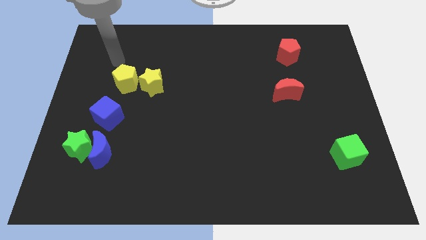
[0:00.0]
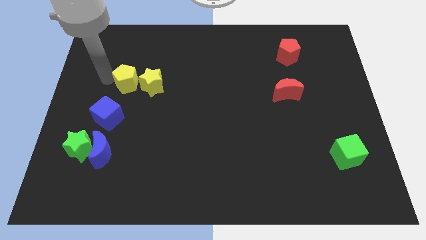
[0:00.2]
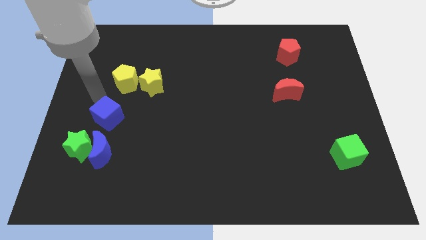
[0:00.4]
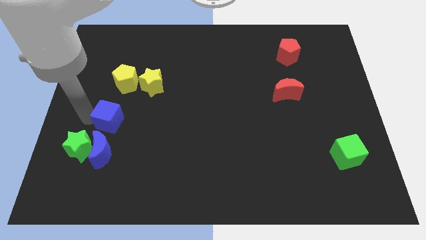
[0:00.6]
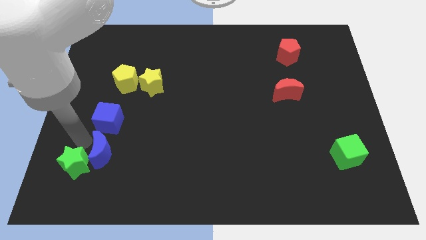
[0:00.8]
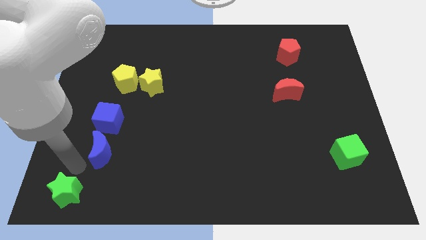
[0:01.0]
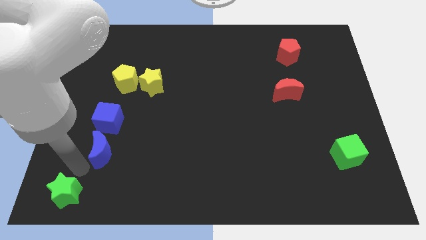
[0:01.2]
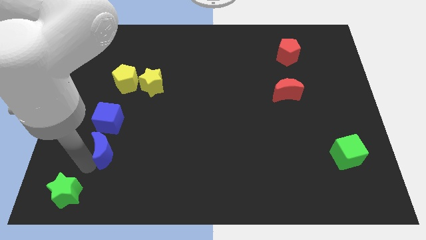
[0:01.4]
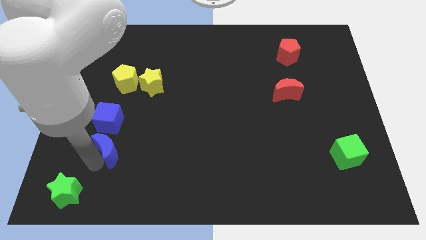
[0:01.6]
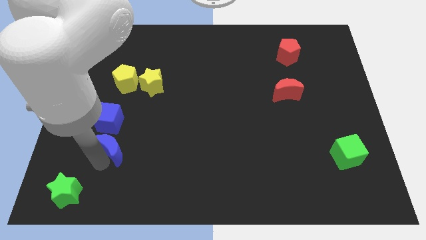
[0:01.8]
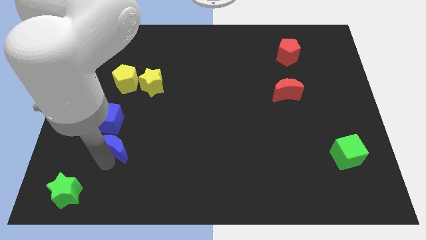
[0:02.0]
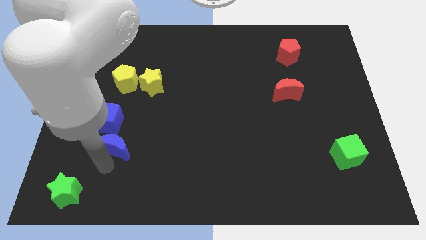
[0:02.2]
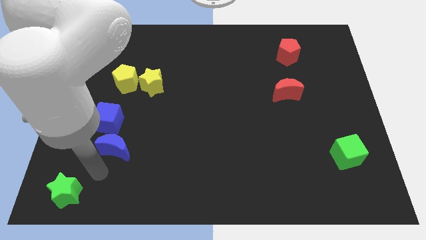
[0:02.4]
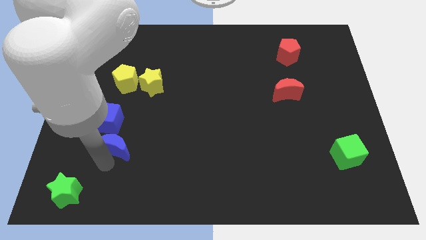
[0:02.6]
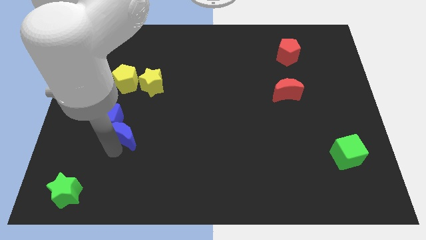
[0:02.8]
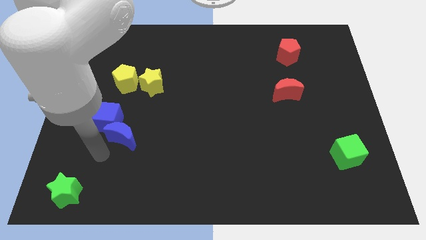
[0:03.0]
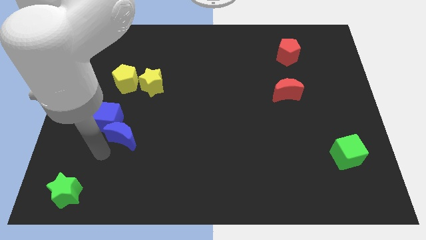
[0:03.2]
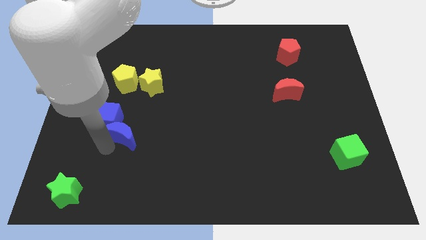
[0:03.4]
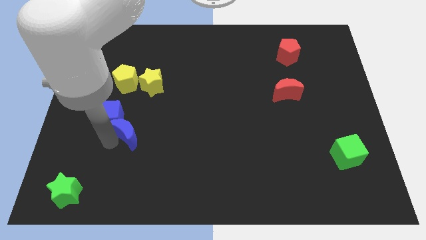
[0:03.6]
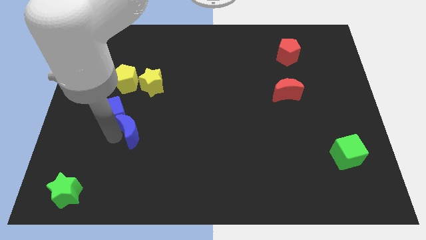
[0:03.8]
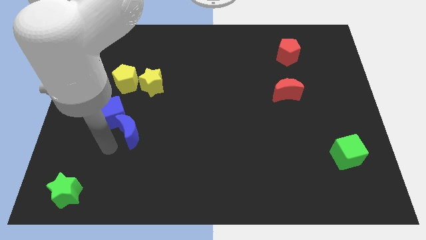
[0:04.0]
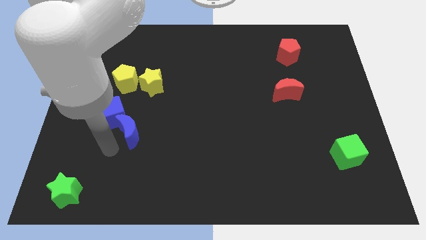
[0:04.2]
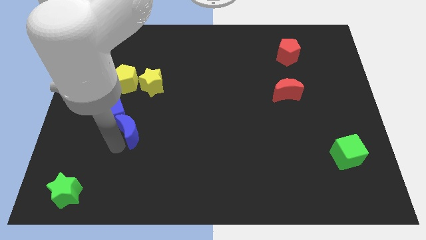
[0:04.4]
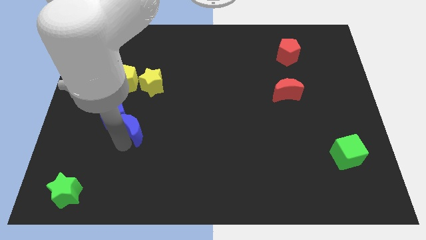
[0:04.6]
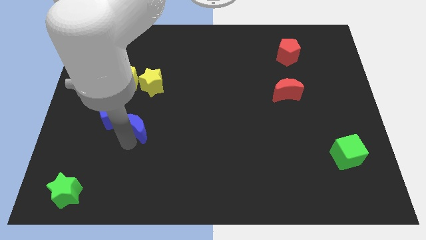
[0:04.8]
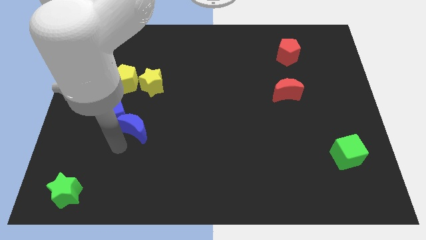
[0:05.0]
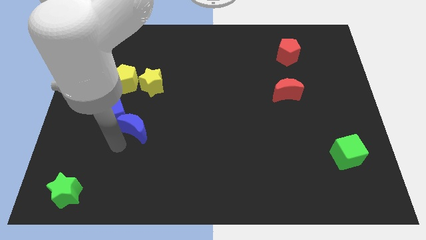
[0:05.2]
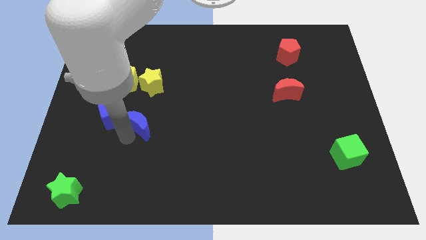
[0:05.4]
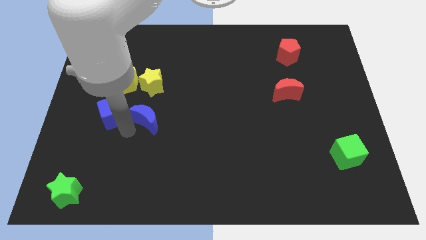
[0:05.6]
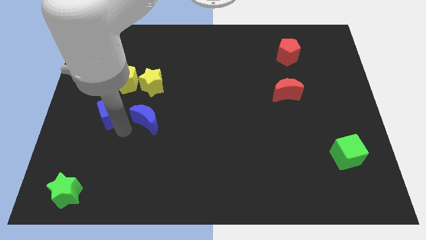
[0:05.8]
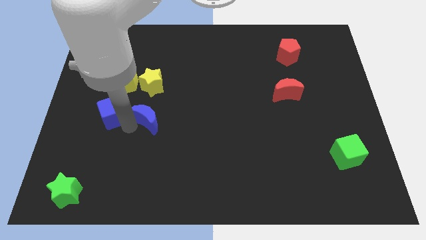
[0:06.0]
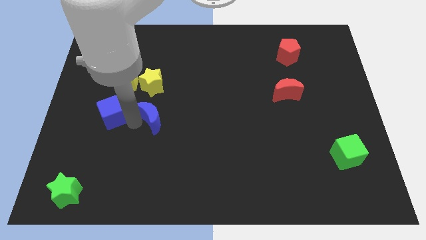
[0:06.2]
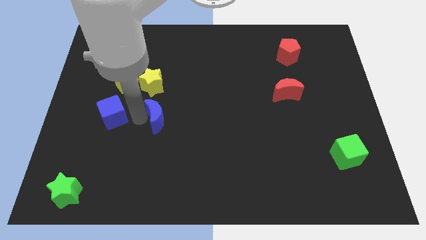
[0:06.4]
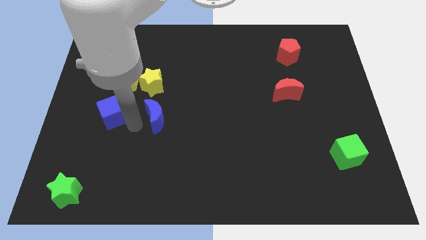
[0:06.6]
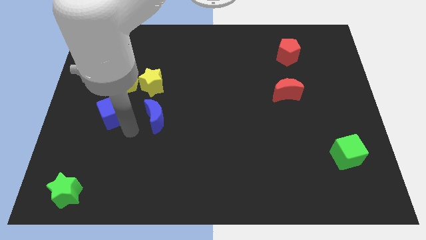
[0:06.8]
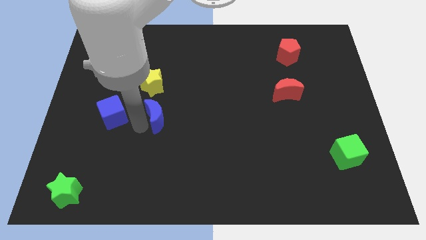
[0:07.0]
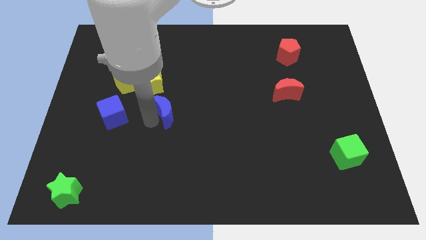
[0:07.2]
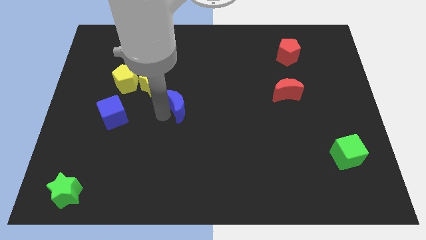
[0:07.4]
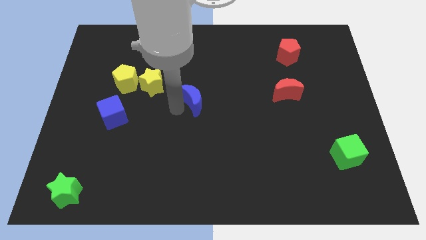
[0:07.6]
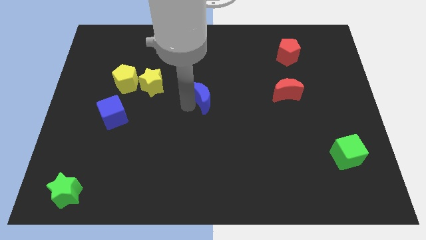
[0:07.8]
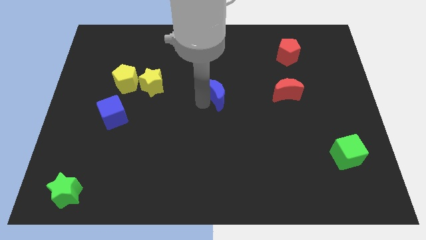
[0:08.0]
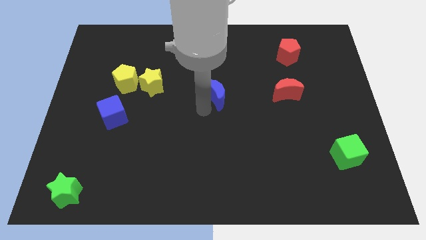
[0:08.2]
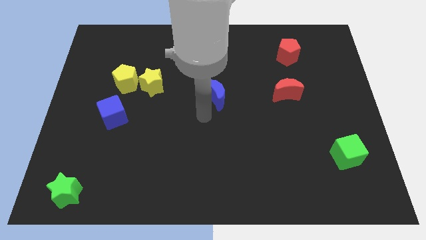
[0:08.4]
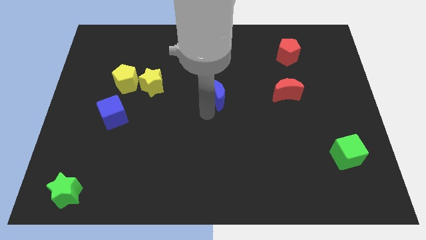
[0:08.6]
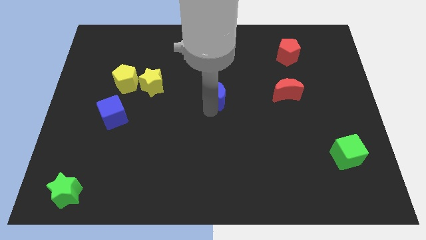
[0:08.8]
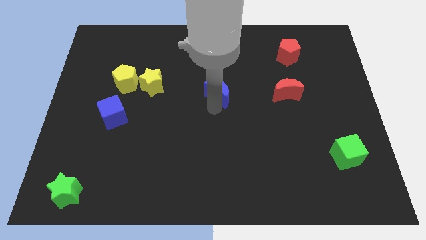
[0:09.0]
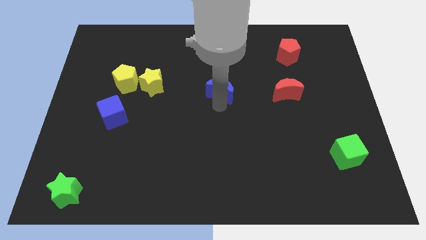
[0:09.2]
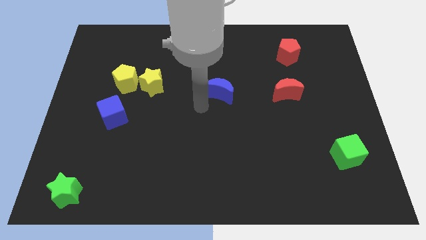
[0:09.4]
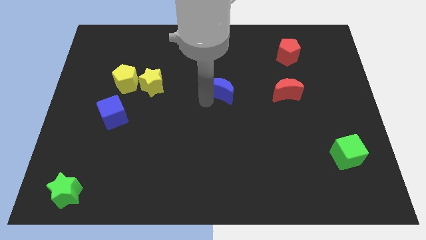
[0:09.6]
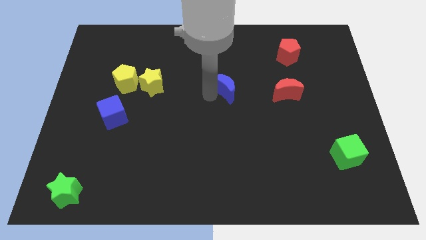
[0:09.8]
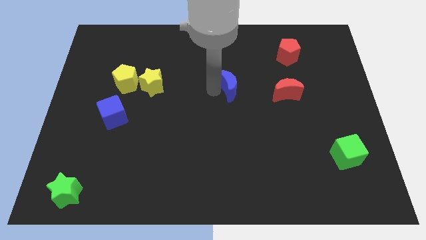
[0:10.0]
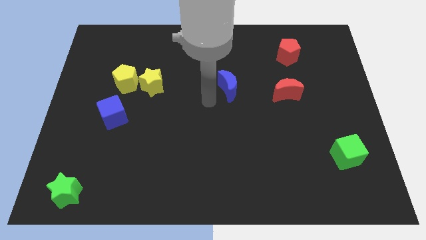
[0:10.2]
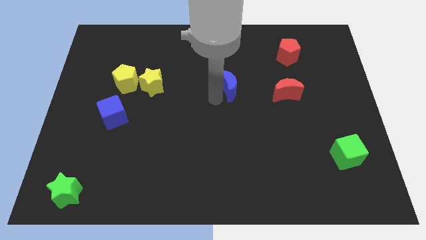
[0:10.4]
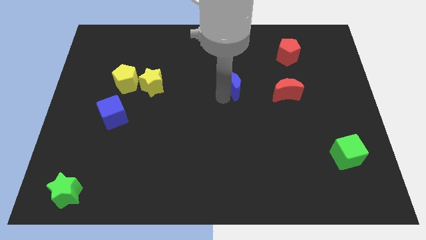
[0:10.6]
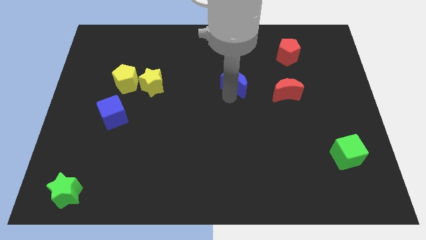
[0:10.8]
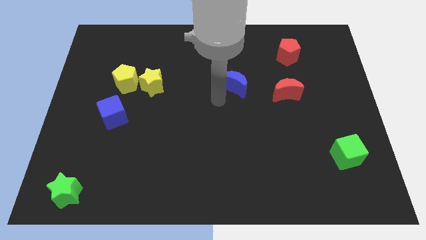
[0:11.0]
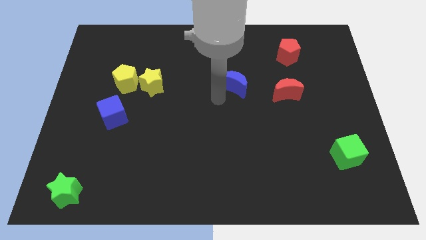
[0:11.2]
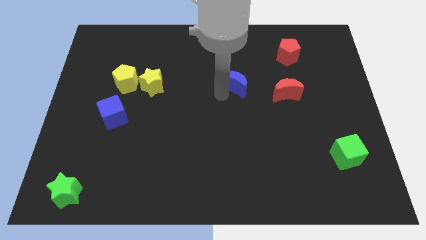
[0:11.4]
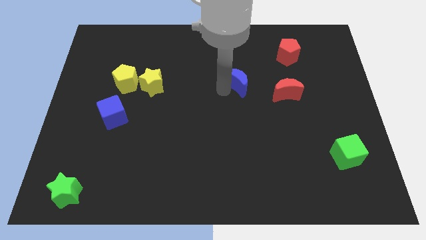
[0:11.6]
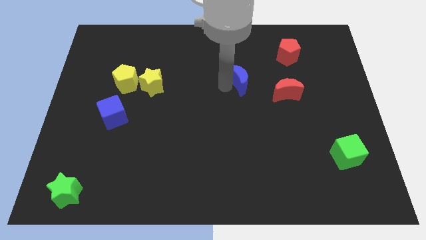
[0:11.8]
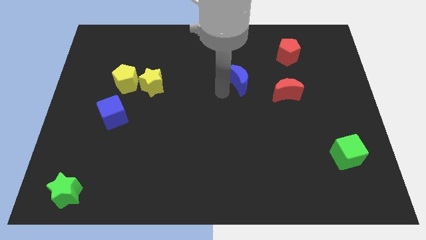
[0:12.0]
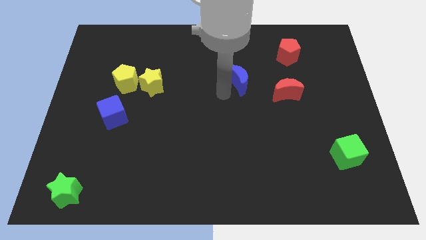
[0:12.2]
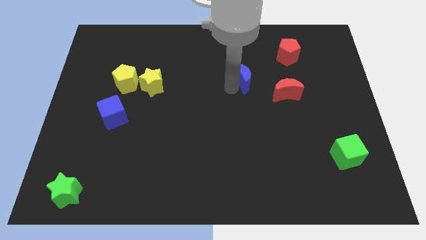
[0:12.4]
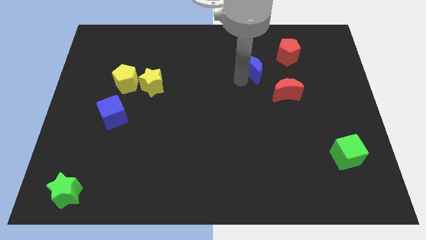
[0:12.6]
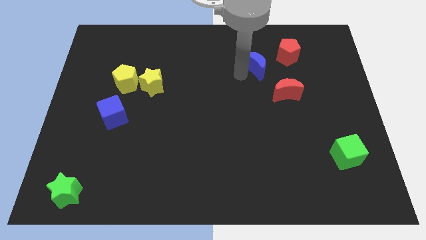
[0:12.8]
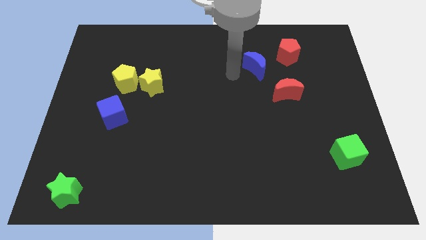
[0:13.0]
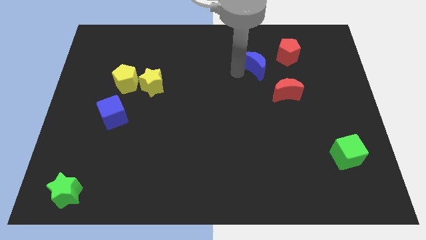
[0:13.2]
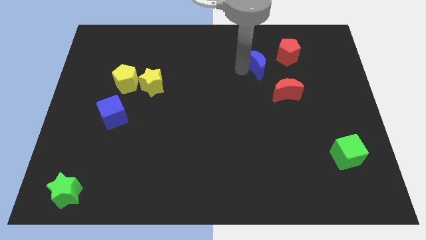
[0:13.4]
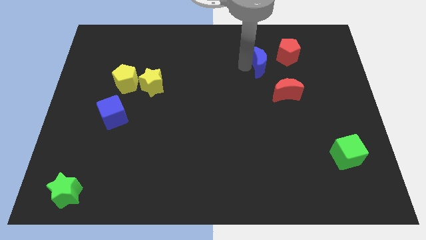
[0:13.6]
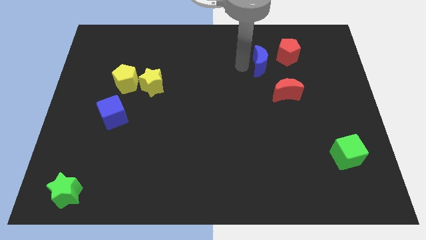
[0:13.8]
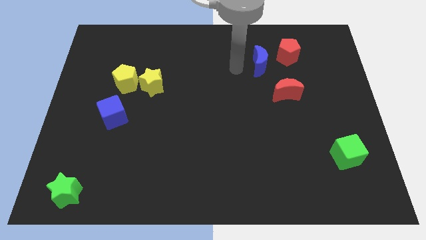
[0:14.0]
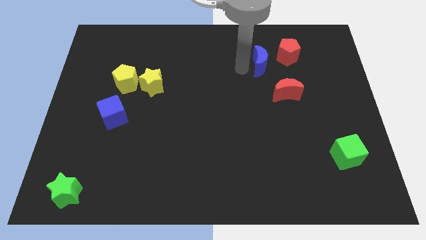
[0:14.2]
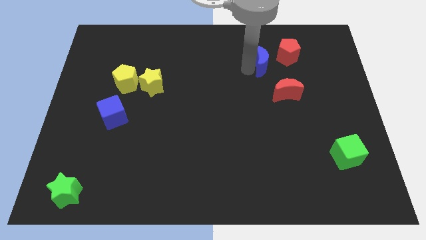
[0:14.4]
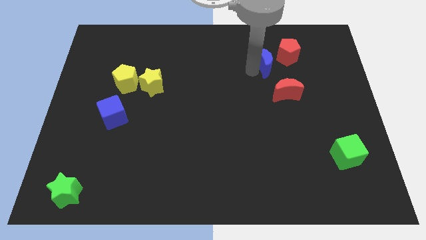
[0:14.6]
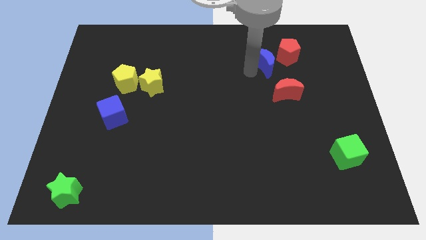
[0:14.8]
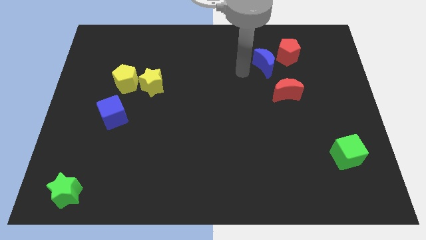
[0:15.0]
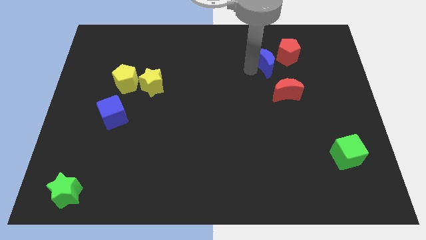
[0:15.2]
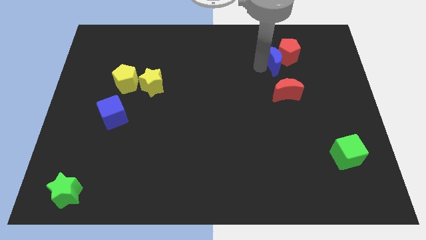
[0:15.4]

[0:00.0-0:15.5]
push the blue moon towards the red pentagon
